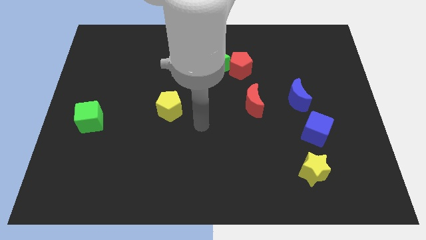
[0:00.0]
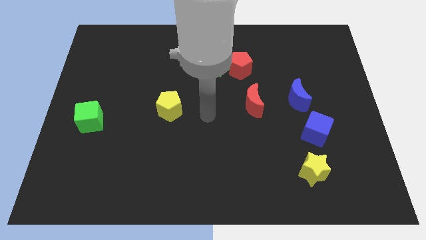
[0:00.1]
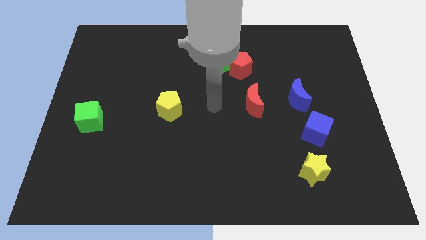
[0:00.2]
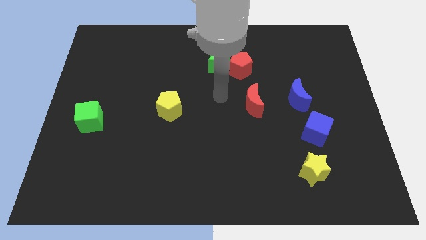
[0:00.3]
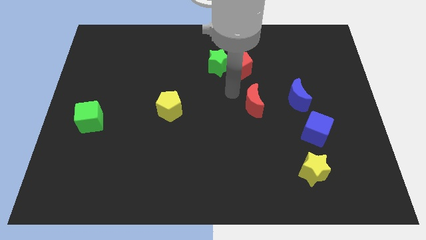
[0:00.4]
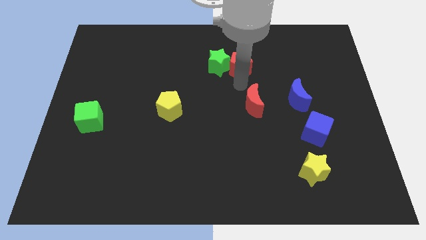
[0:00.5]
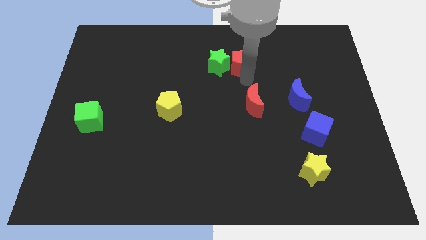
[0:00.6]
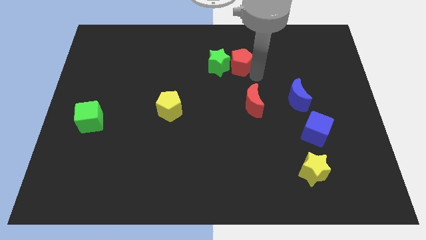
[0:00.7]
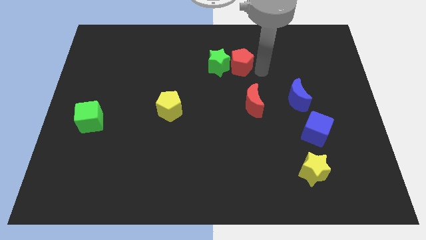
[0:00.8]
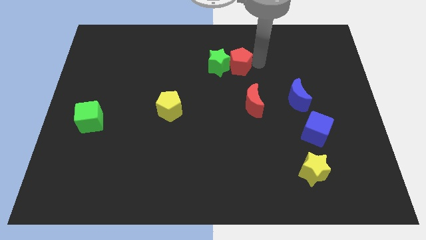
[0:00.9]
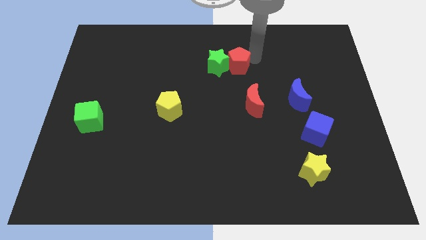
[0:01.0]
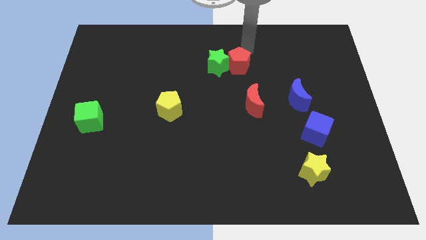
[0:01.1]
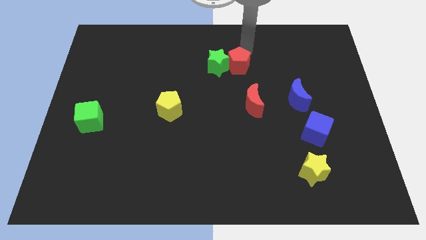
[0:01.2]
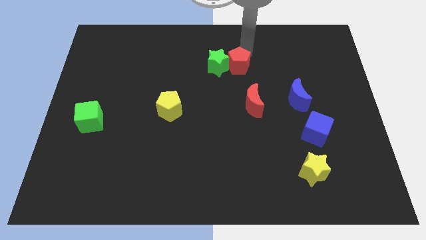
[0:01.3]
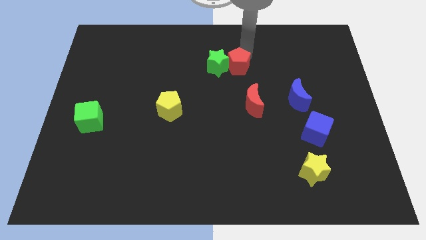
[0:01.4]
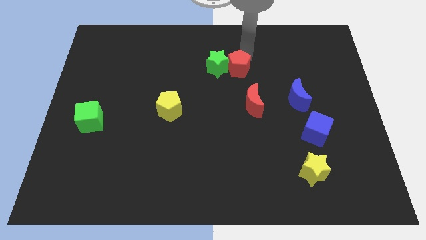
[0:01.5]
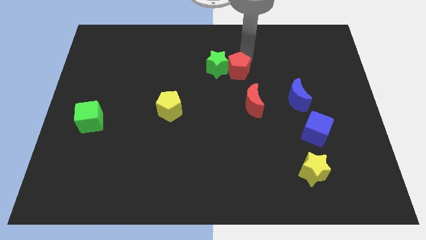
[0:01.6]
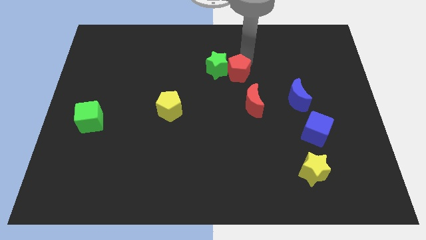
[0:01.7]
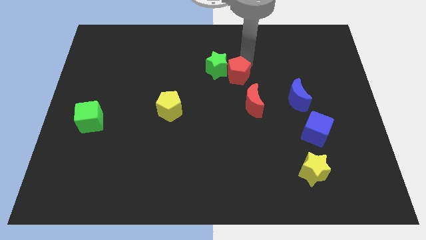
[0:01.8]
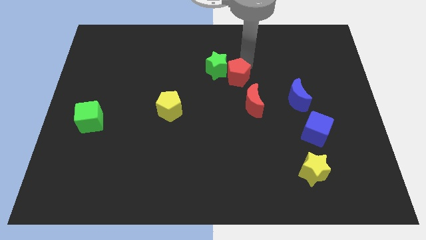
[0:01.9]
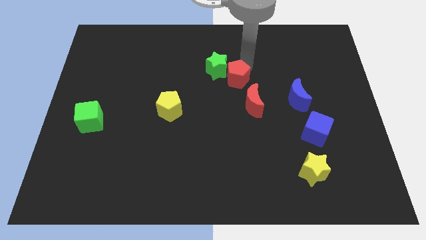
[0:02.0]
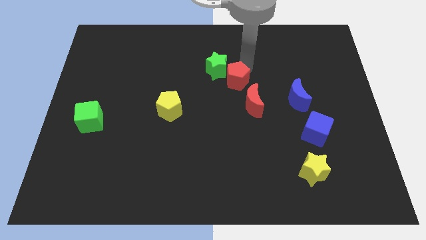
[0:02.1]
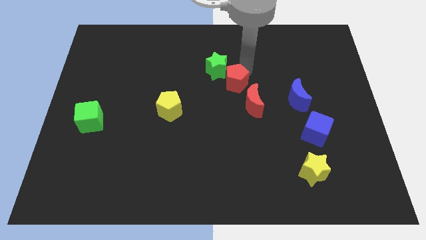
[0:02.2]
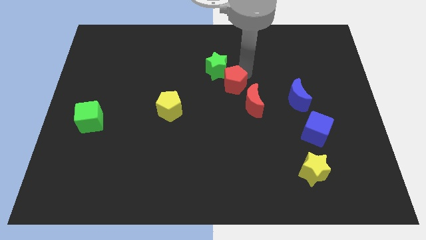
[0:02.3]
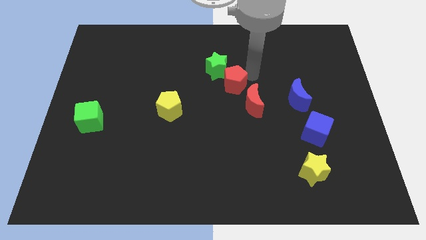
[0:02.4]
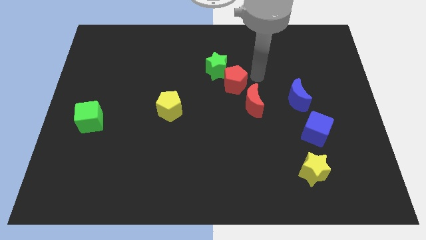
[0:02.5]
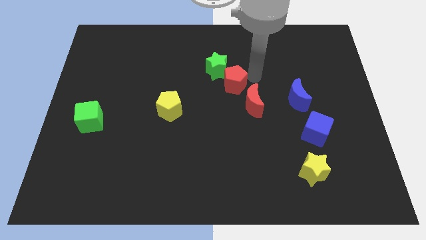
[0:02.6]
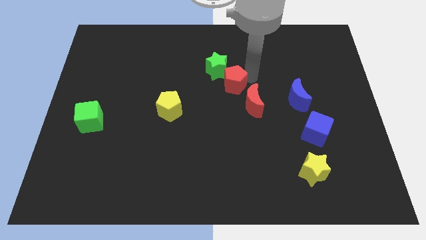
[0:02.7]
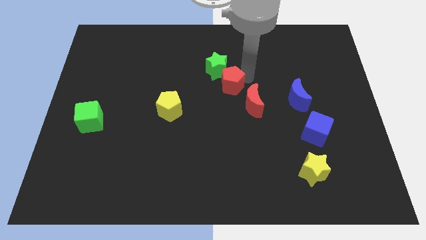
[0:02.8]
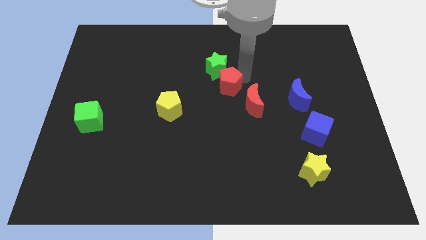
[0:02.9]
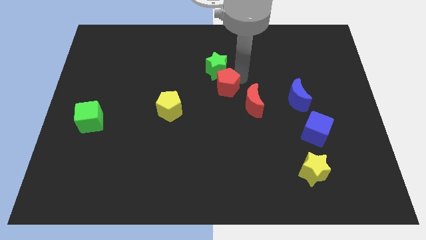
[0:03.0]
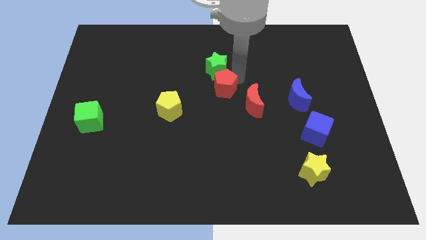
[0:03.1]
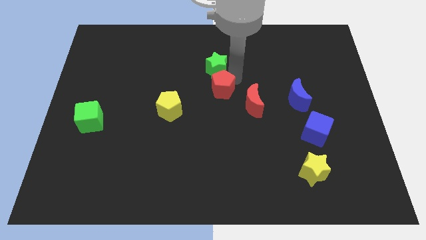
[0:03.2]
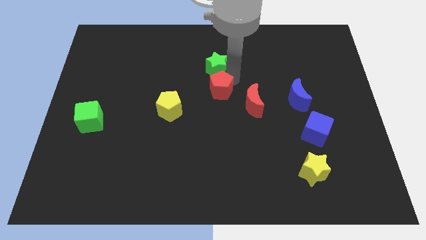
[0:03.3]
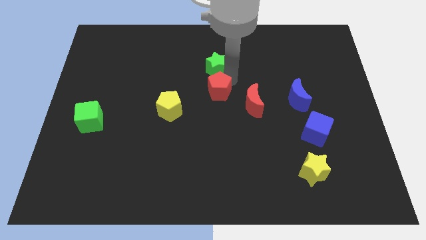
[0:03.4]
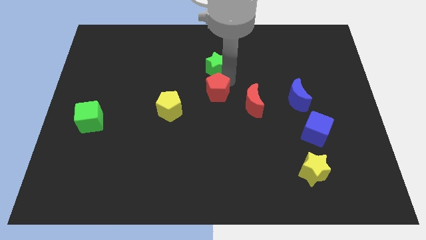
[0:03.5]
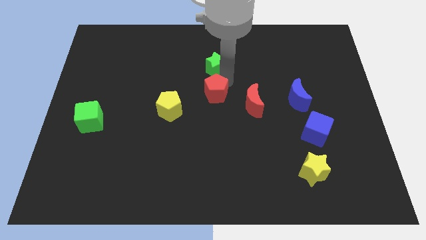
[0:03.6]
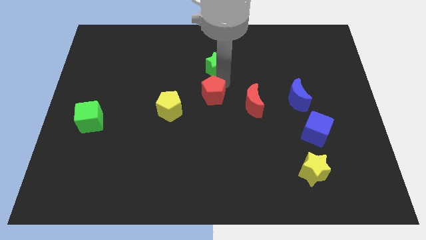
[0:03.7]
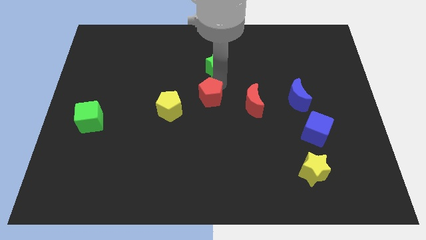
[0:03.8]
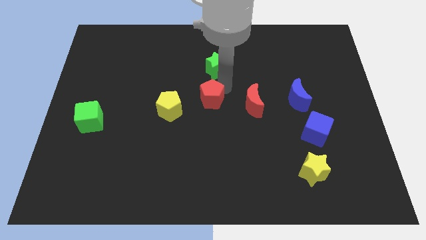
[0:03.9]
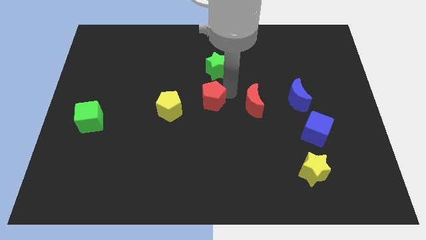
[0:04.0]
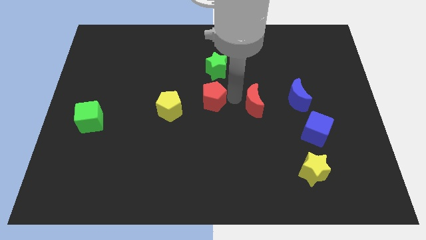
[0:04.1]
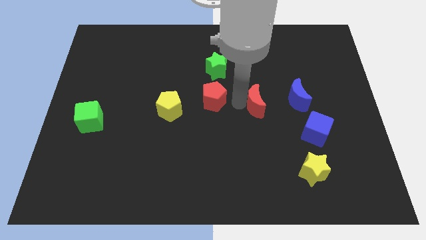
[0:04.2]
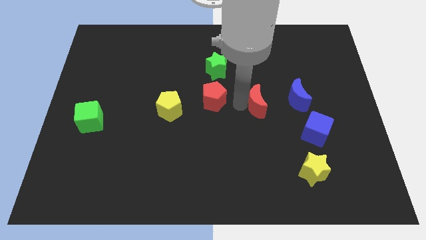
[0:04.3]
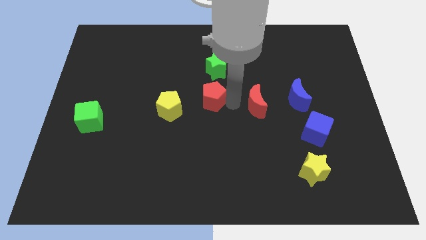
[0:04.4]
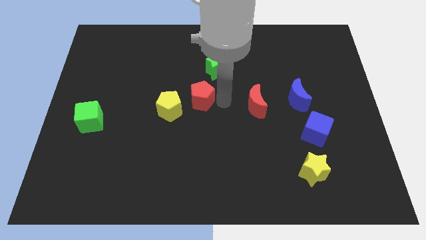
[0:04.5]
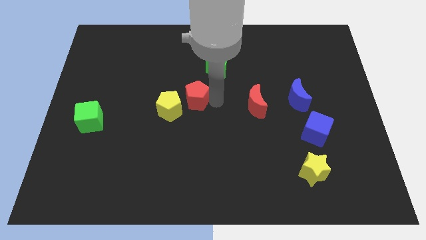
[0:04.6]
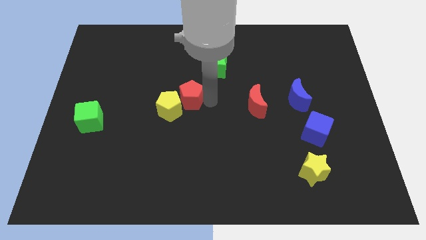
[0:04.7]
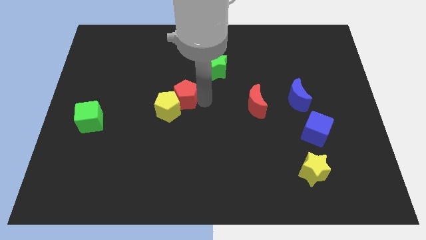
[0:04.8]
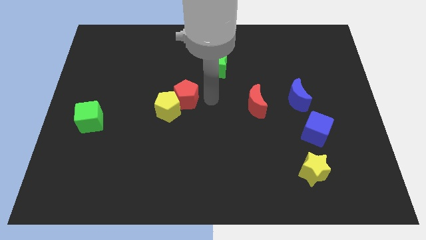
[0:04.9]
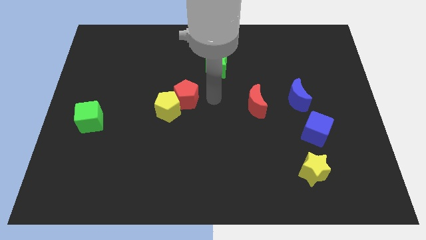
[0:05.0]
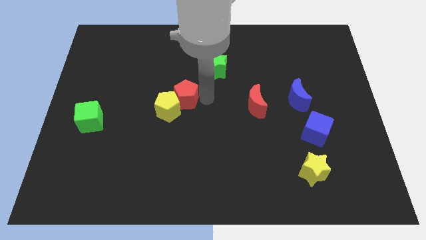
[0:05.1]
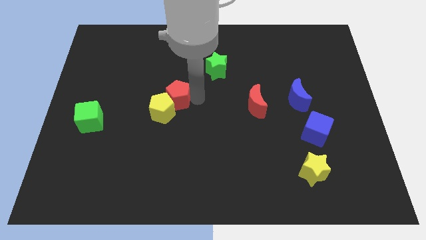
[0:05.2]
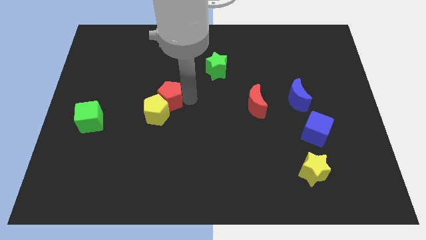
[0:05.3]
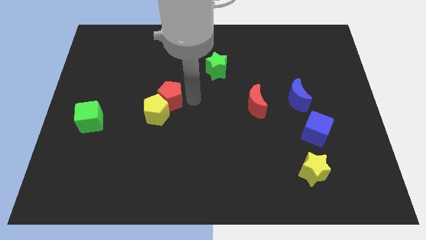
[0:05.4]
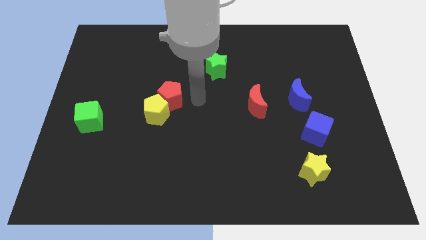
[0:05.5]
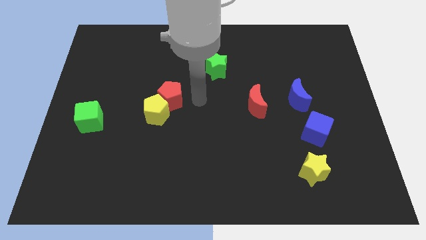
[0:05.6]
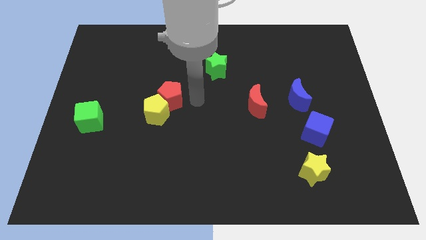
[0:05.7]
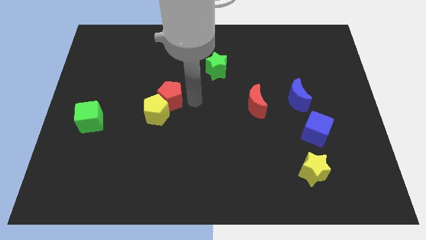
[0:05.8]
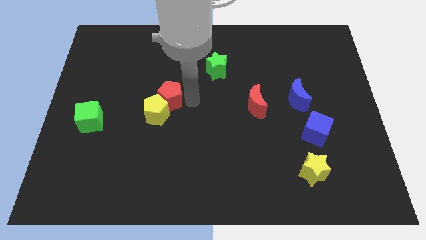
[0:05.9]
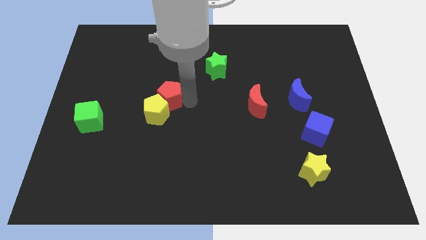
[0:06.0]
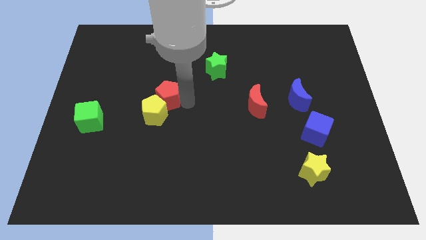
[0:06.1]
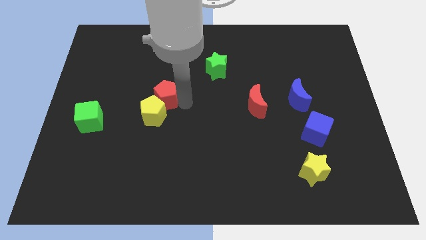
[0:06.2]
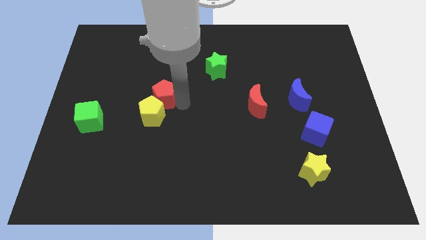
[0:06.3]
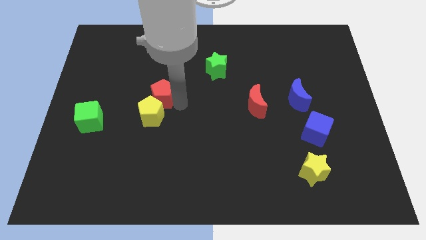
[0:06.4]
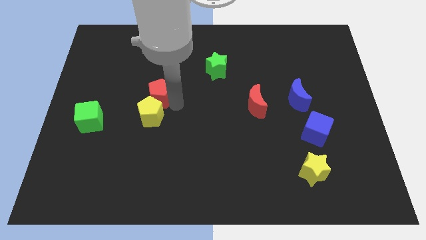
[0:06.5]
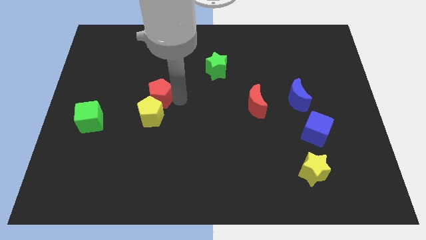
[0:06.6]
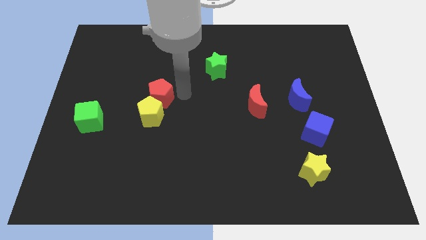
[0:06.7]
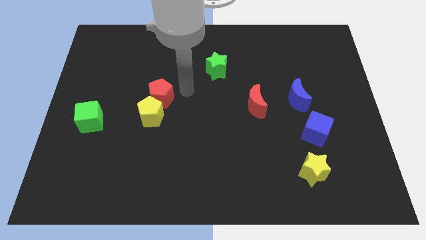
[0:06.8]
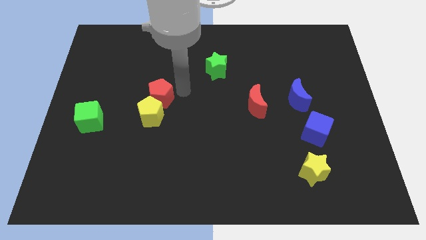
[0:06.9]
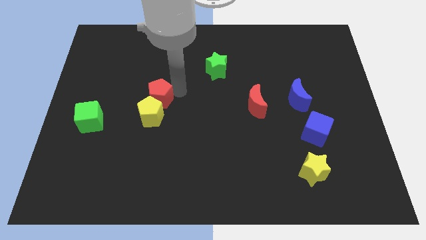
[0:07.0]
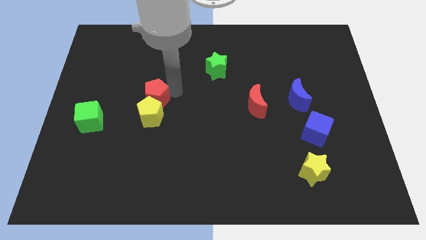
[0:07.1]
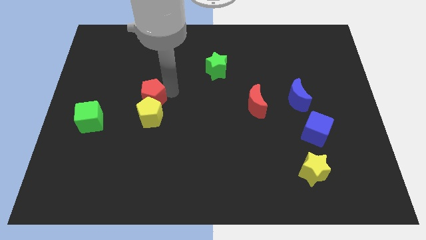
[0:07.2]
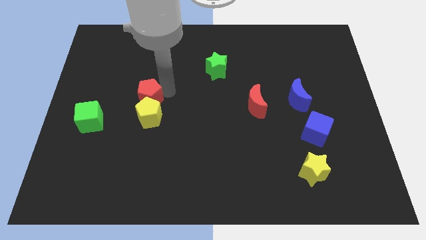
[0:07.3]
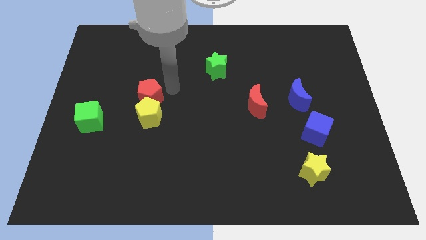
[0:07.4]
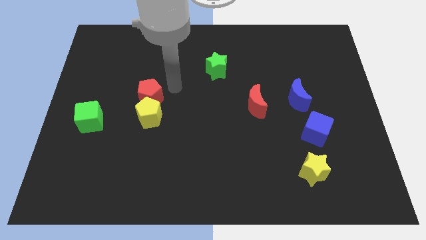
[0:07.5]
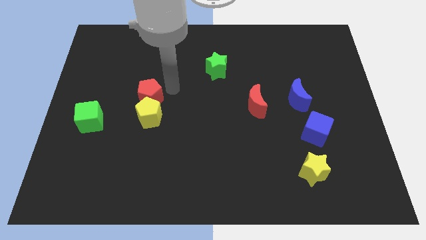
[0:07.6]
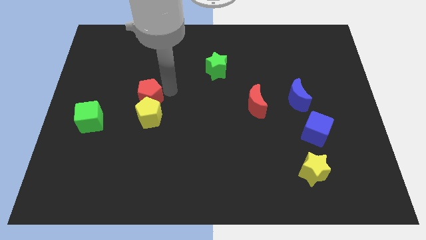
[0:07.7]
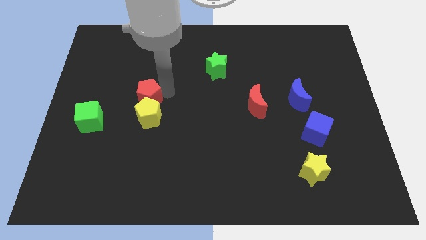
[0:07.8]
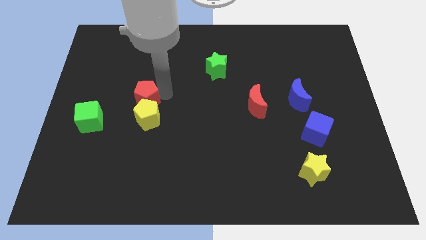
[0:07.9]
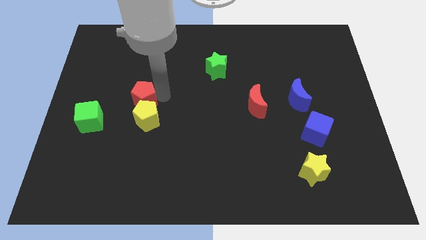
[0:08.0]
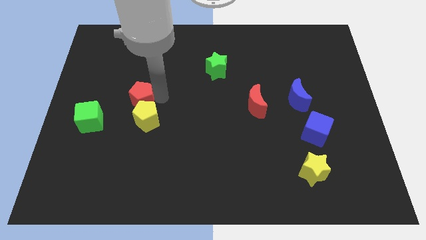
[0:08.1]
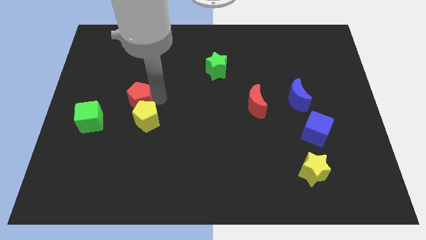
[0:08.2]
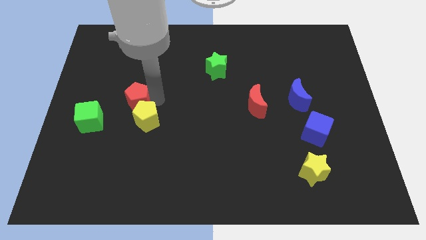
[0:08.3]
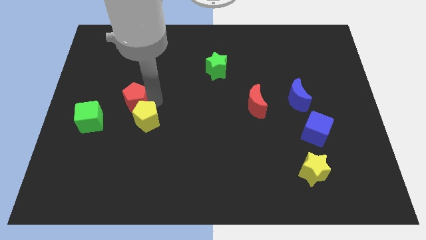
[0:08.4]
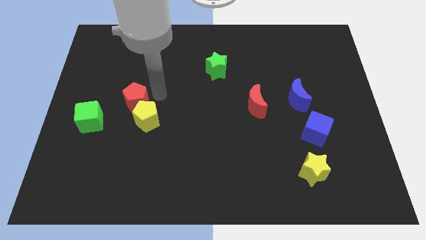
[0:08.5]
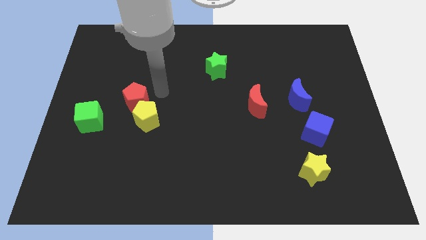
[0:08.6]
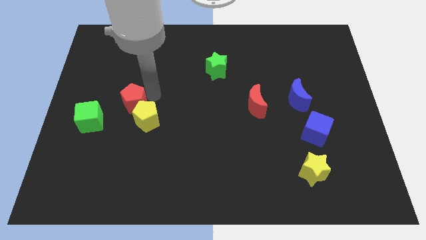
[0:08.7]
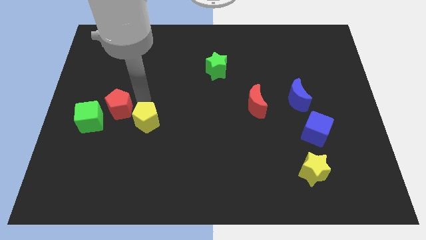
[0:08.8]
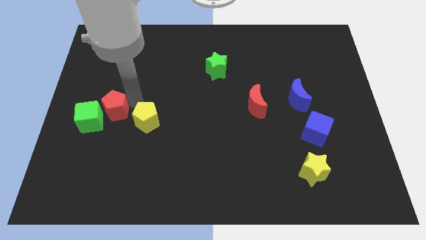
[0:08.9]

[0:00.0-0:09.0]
move the red pentagon next to the green cube
